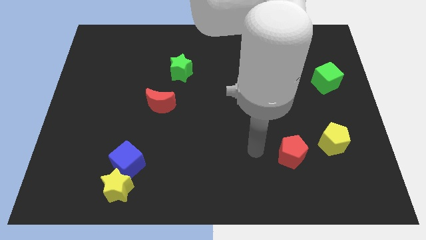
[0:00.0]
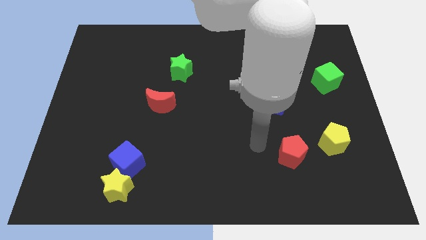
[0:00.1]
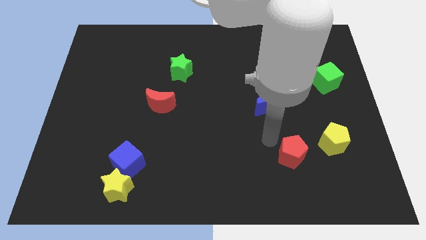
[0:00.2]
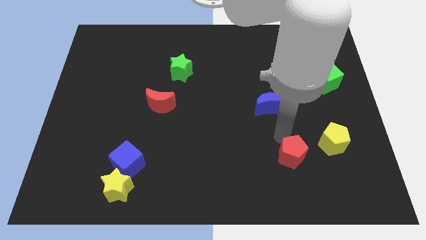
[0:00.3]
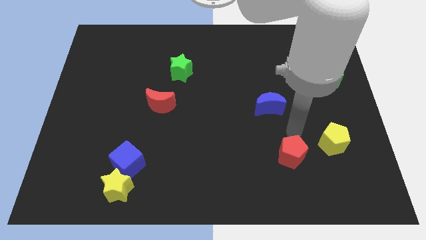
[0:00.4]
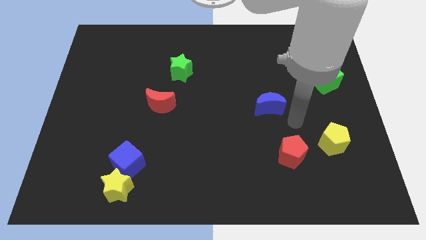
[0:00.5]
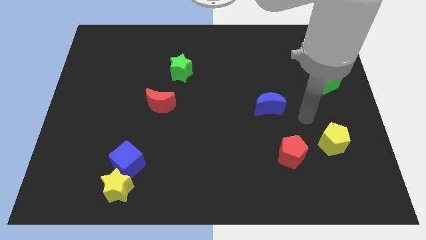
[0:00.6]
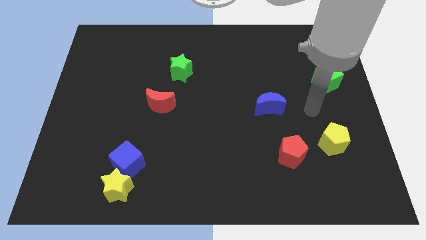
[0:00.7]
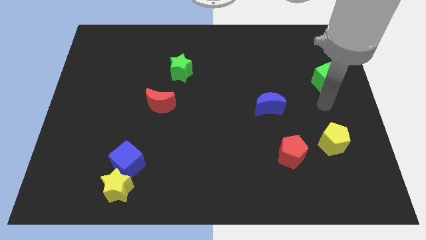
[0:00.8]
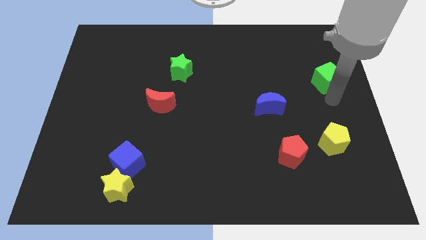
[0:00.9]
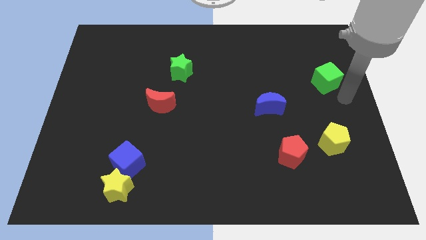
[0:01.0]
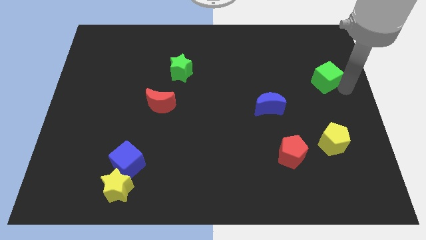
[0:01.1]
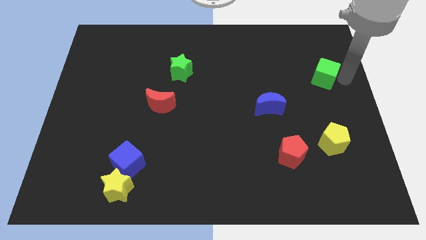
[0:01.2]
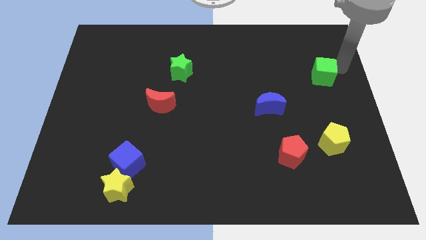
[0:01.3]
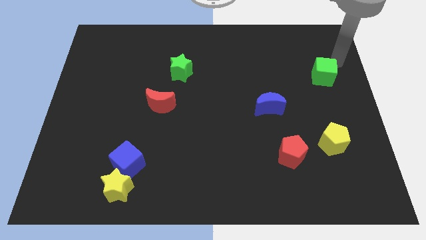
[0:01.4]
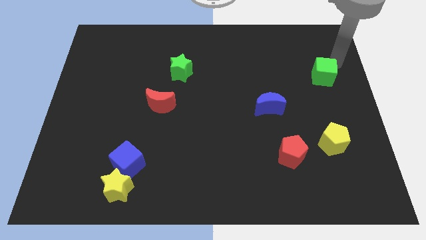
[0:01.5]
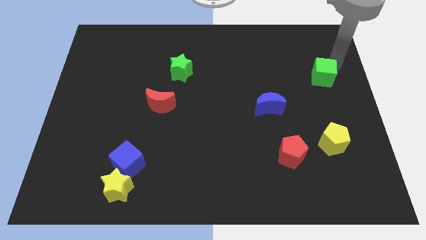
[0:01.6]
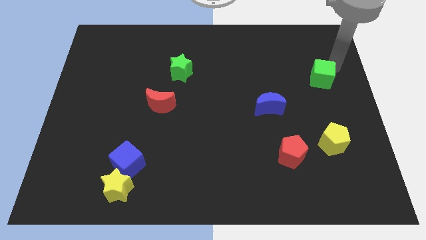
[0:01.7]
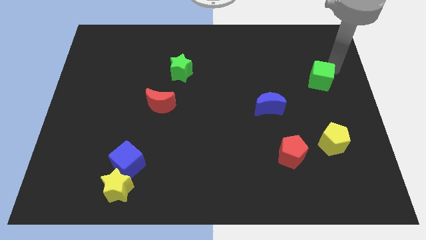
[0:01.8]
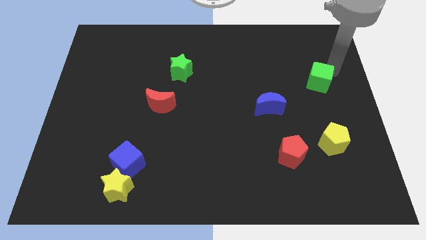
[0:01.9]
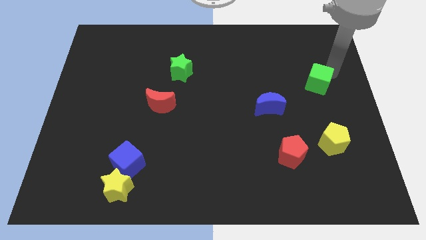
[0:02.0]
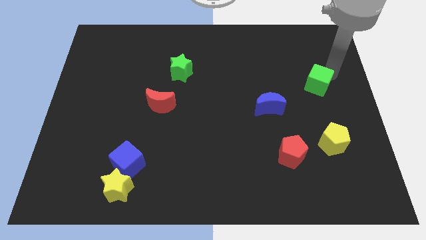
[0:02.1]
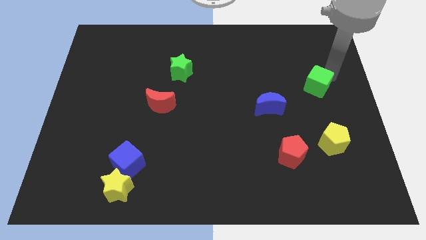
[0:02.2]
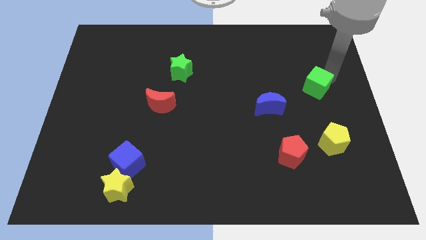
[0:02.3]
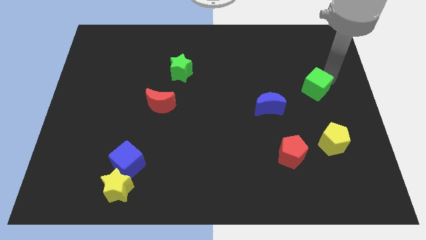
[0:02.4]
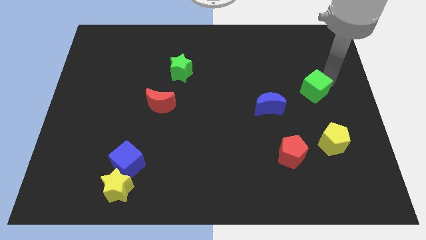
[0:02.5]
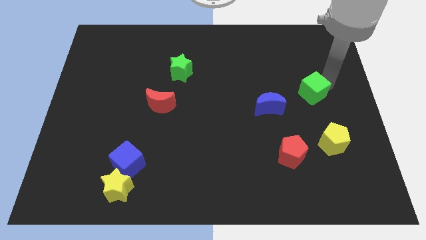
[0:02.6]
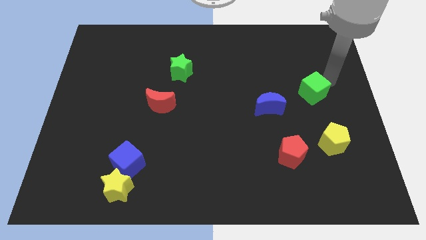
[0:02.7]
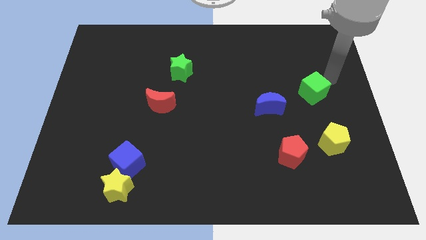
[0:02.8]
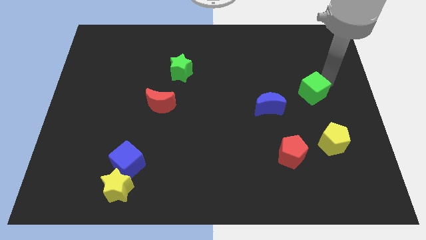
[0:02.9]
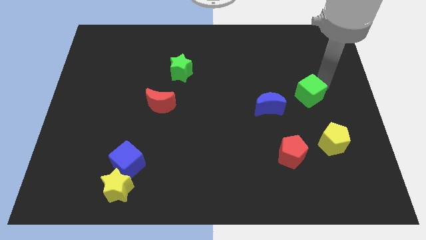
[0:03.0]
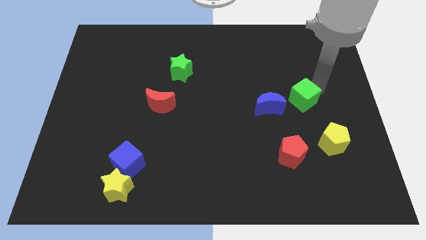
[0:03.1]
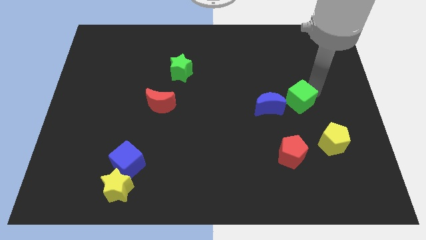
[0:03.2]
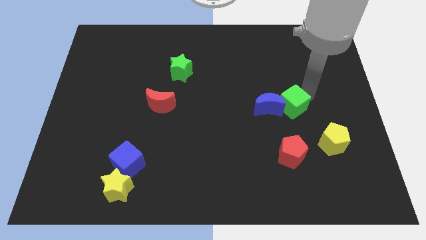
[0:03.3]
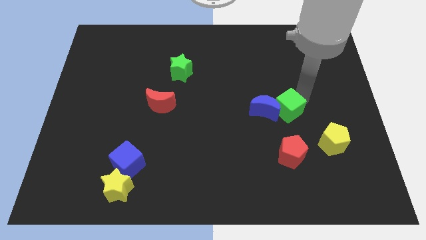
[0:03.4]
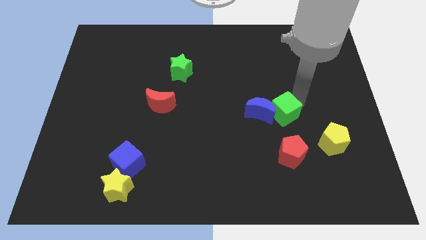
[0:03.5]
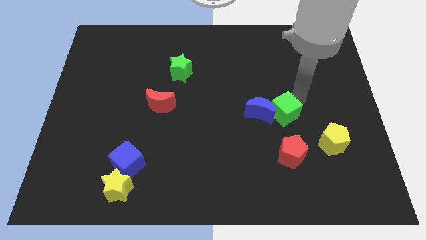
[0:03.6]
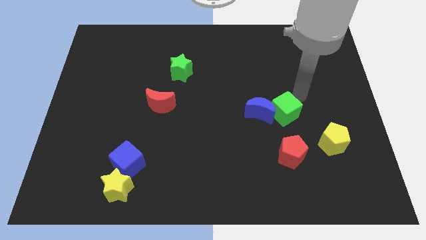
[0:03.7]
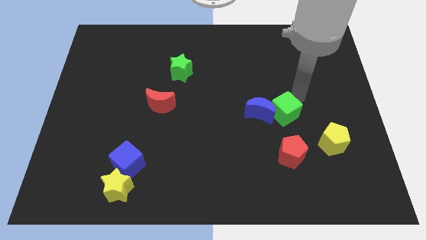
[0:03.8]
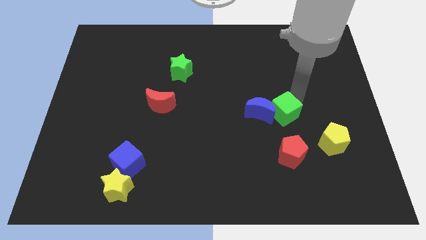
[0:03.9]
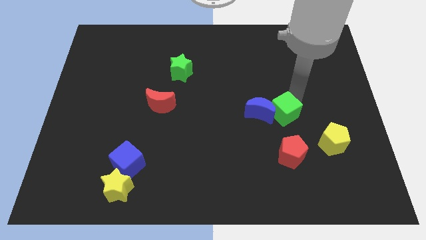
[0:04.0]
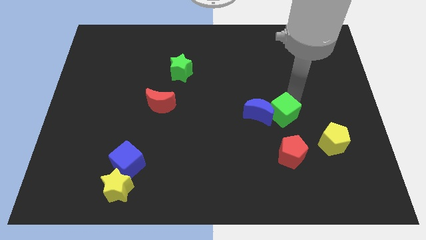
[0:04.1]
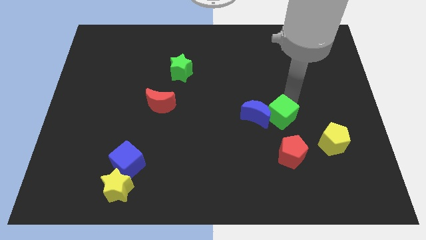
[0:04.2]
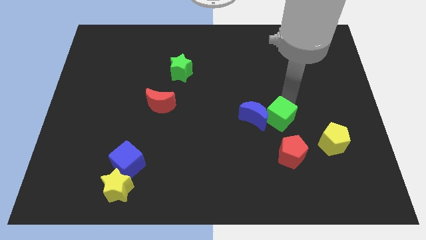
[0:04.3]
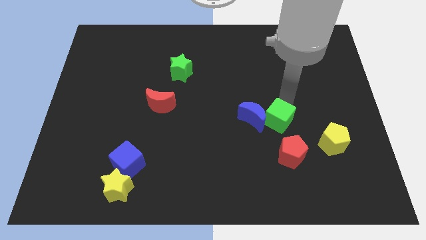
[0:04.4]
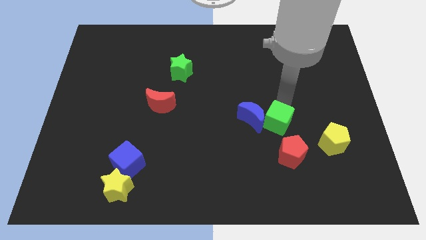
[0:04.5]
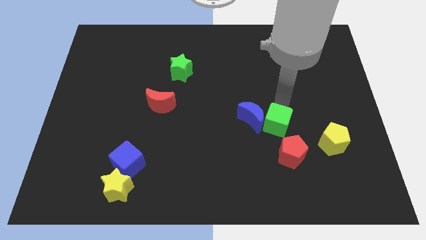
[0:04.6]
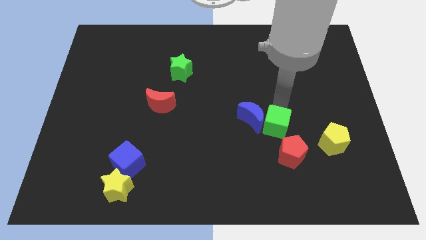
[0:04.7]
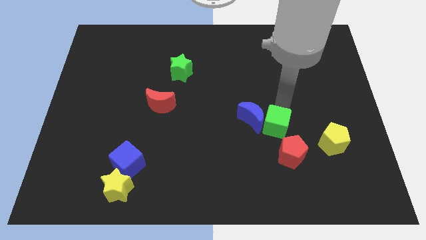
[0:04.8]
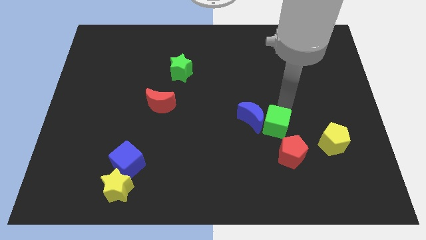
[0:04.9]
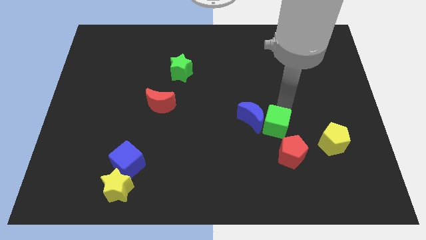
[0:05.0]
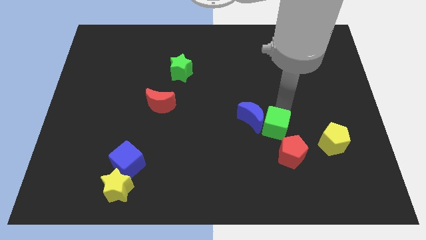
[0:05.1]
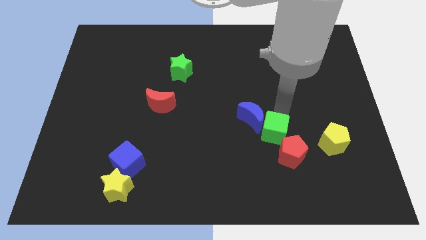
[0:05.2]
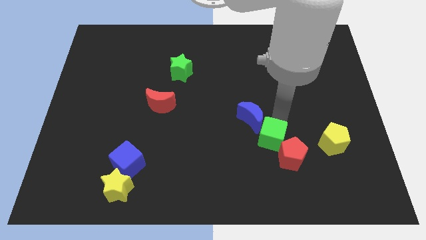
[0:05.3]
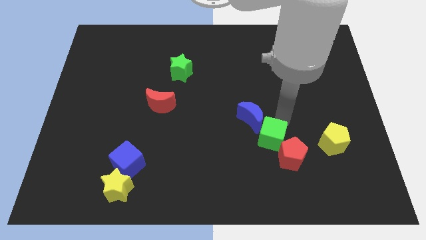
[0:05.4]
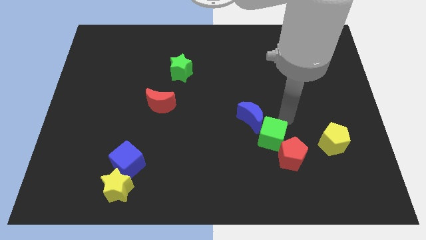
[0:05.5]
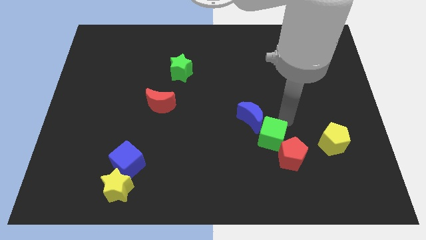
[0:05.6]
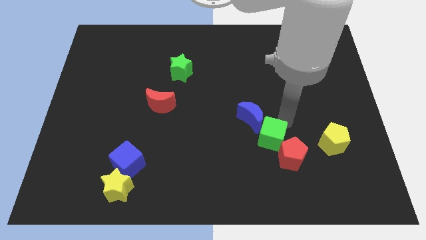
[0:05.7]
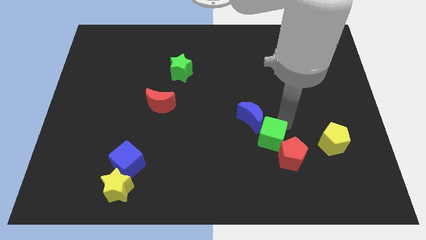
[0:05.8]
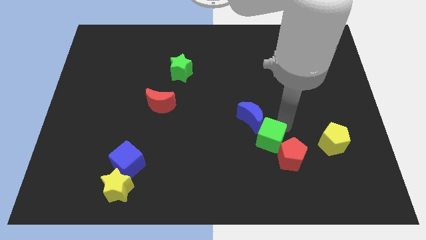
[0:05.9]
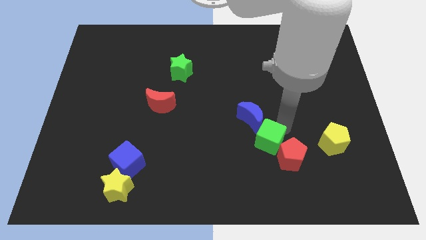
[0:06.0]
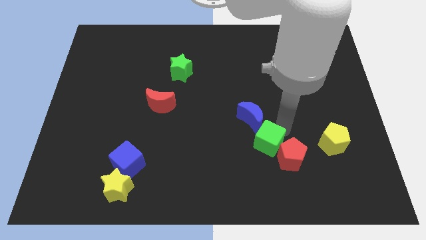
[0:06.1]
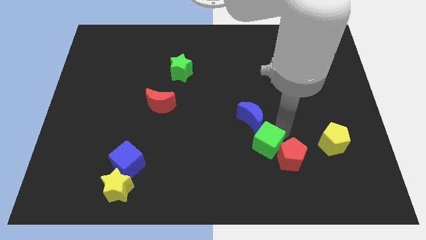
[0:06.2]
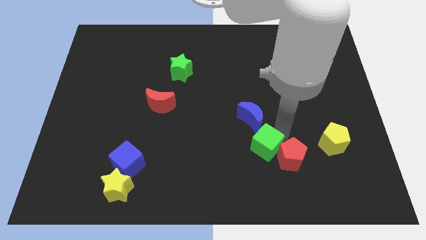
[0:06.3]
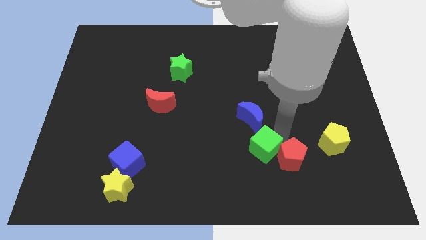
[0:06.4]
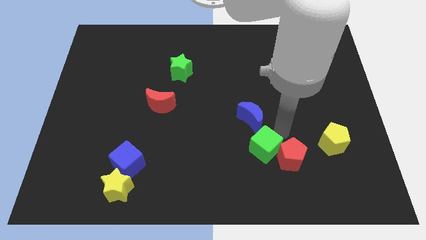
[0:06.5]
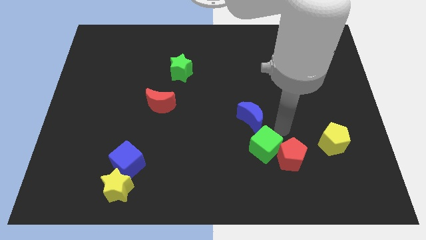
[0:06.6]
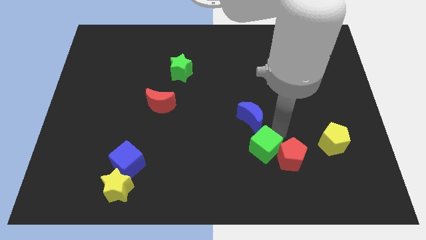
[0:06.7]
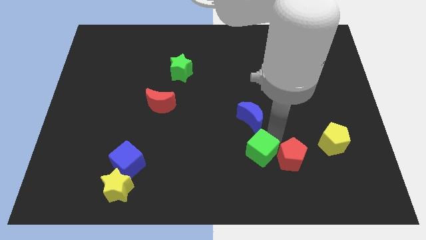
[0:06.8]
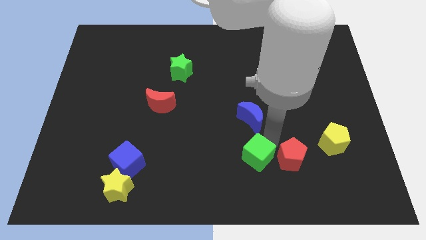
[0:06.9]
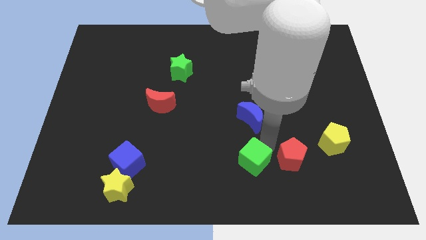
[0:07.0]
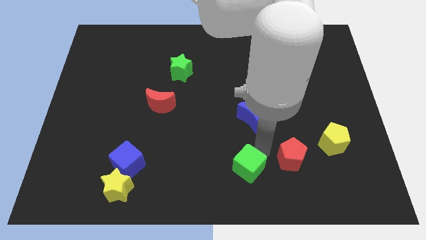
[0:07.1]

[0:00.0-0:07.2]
put the green cube to the bottom side
